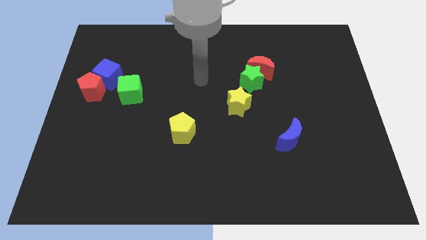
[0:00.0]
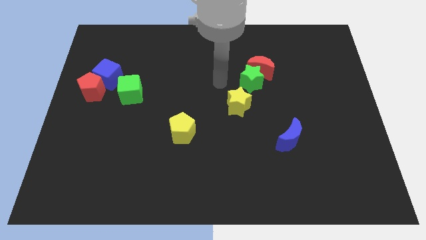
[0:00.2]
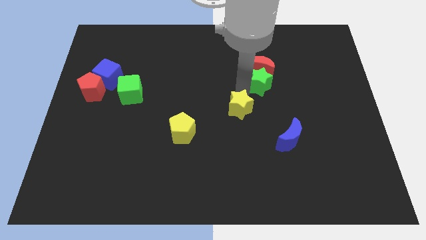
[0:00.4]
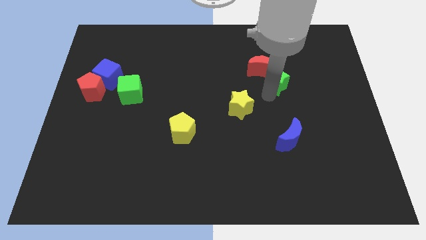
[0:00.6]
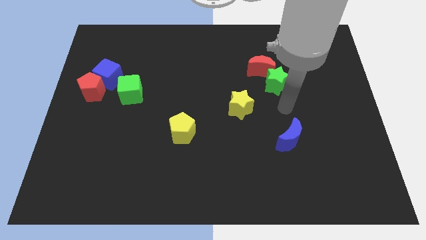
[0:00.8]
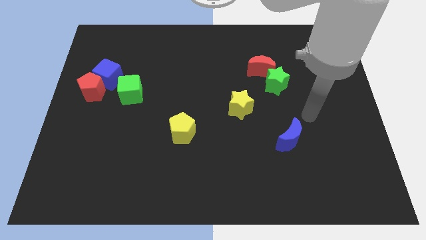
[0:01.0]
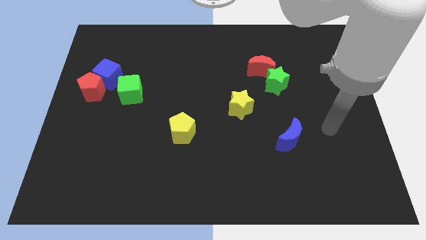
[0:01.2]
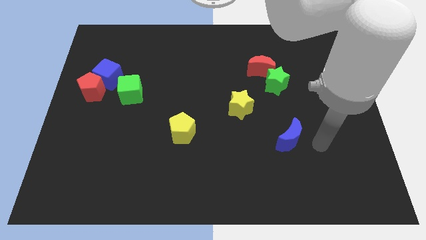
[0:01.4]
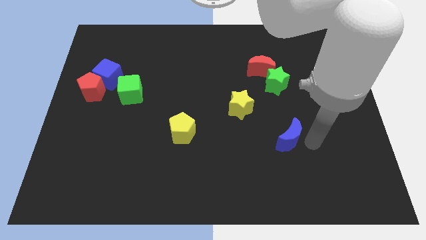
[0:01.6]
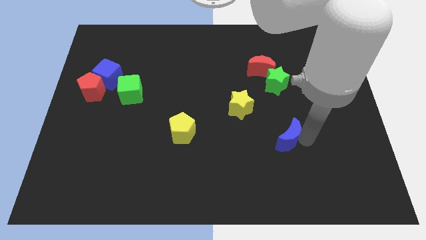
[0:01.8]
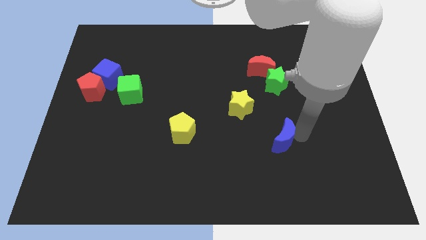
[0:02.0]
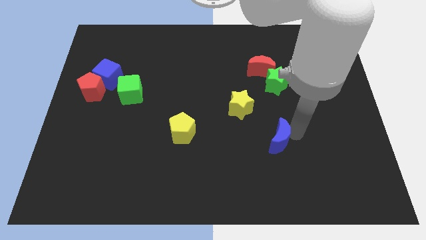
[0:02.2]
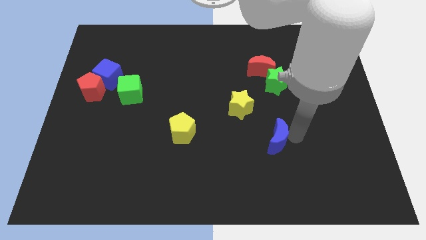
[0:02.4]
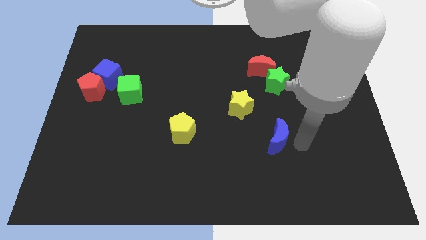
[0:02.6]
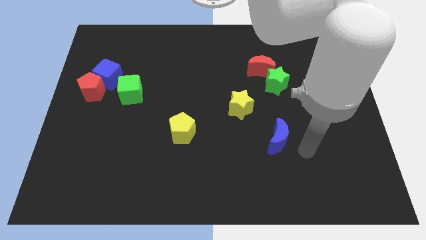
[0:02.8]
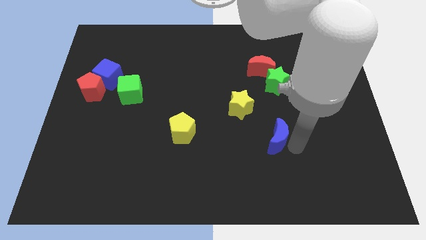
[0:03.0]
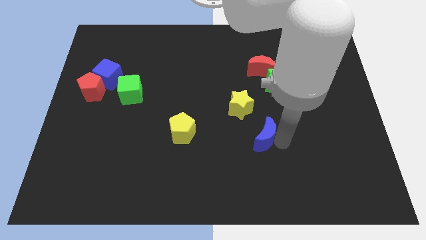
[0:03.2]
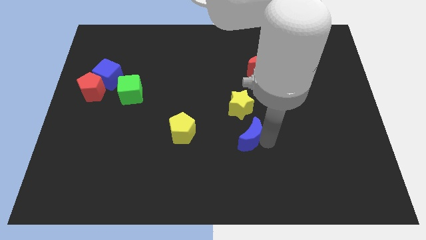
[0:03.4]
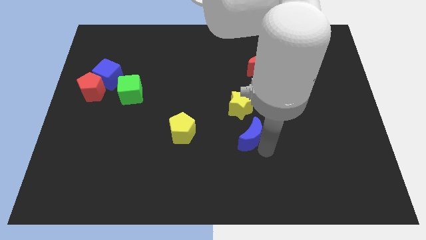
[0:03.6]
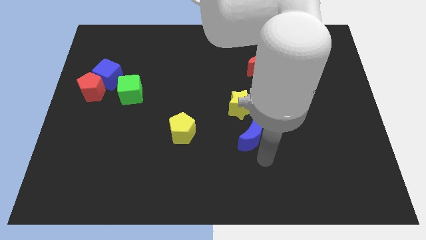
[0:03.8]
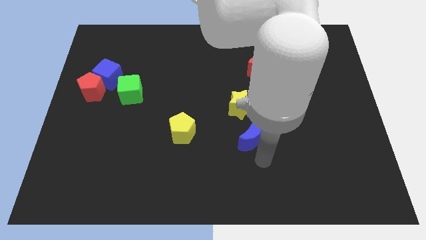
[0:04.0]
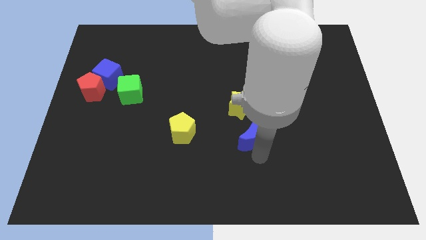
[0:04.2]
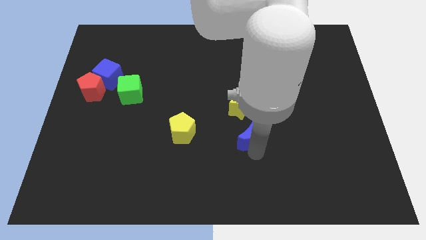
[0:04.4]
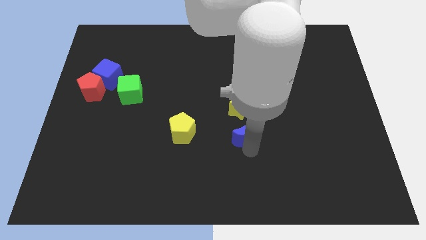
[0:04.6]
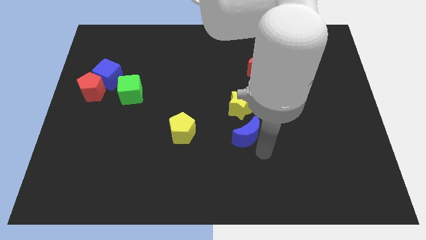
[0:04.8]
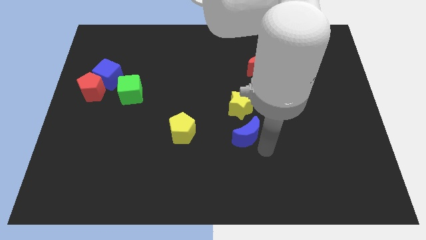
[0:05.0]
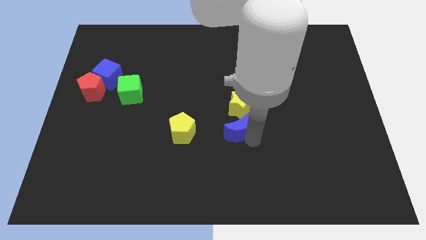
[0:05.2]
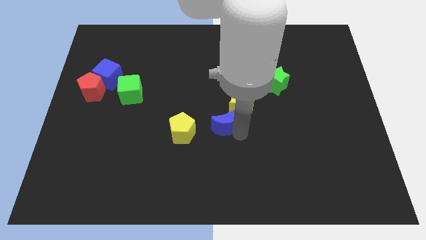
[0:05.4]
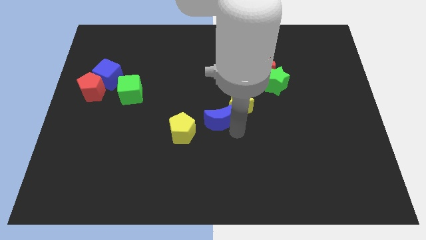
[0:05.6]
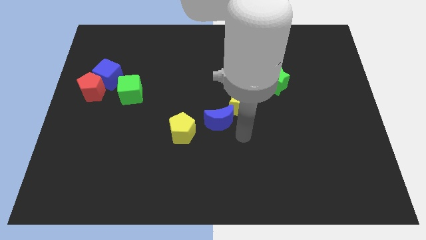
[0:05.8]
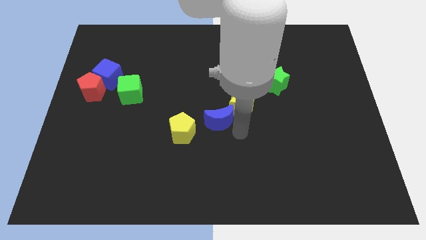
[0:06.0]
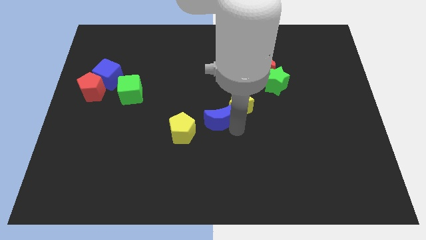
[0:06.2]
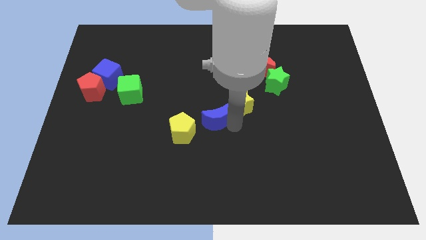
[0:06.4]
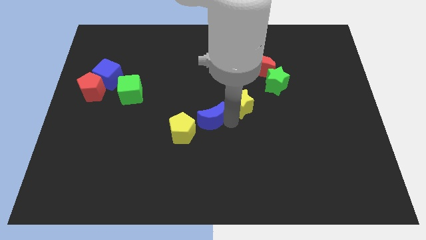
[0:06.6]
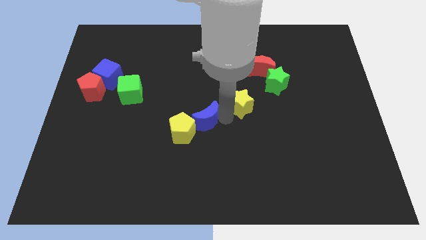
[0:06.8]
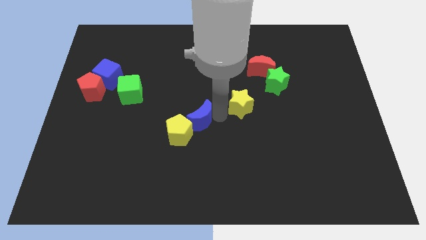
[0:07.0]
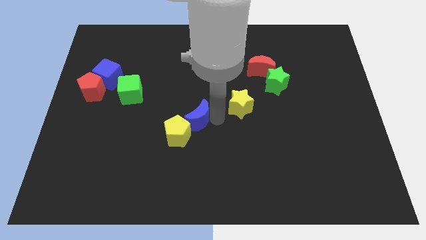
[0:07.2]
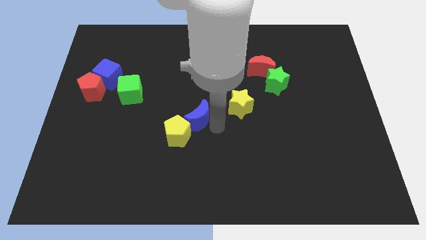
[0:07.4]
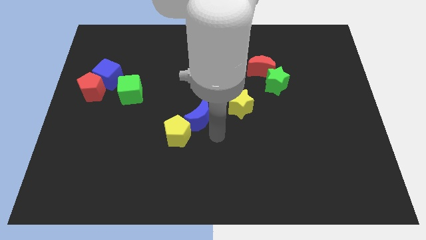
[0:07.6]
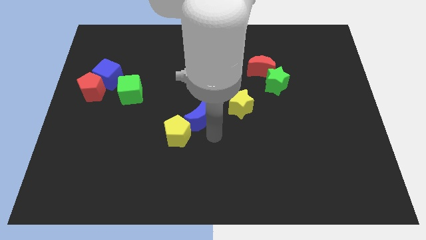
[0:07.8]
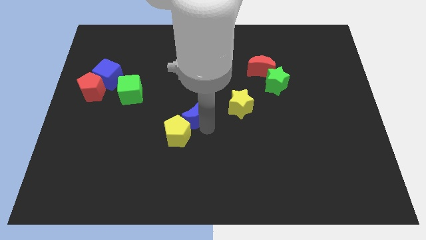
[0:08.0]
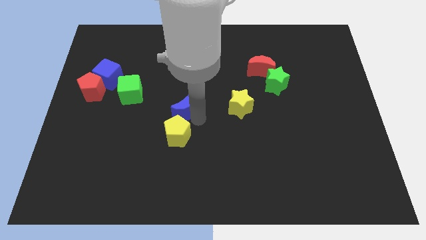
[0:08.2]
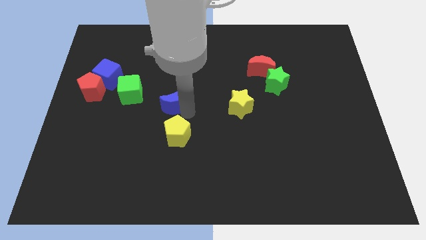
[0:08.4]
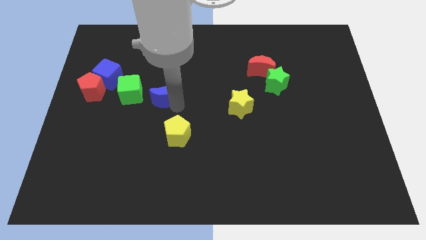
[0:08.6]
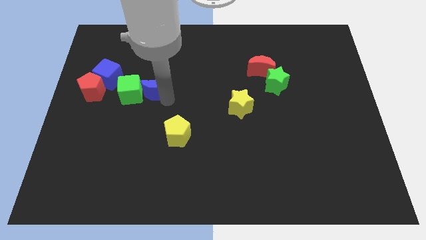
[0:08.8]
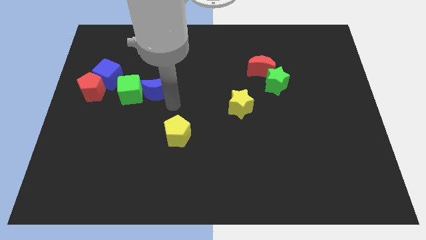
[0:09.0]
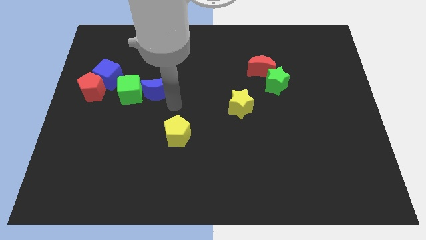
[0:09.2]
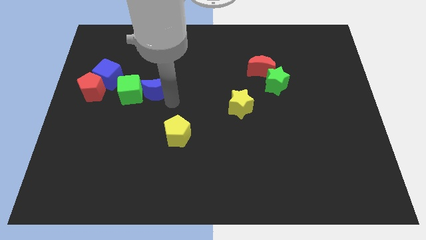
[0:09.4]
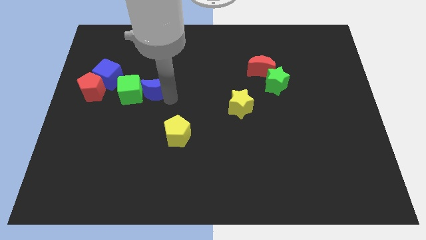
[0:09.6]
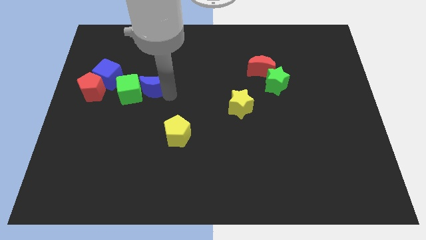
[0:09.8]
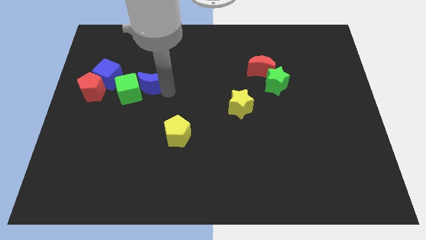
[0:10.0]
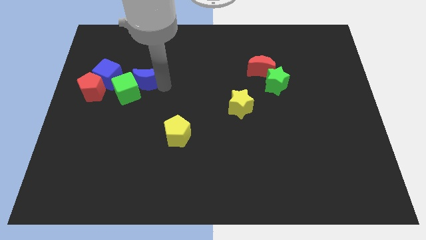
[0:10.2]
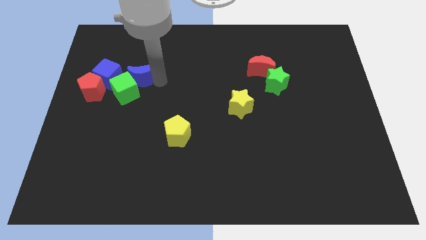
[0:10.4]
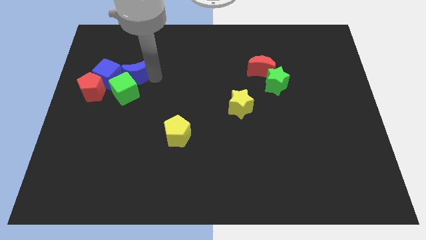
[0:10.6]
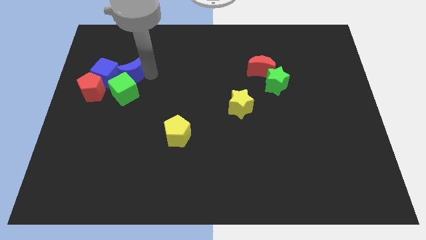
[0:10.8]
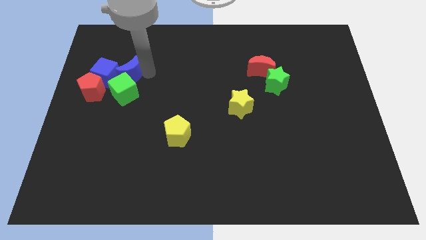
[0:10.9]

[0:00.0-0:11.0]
move the blue moon close to the blue cube

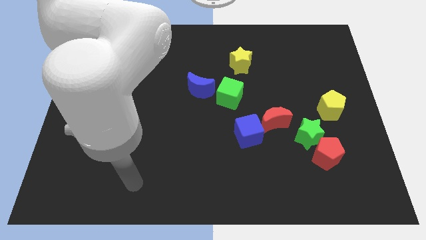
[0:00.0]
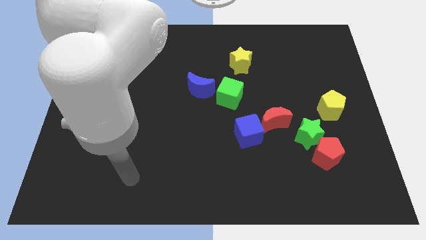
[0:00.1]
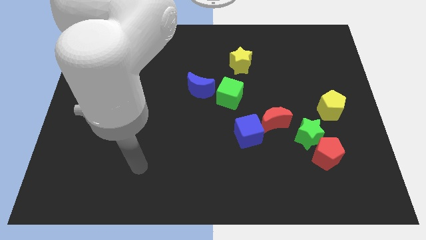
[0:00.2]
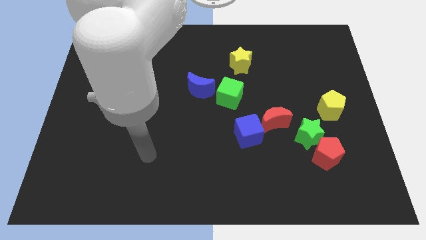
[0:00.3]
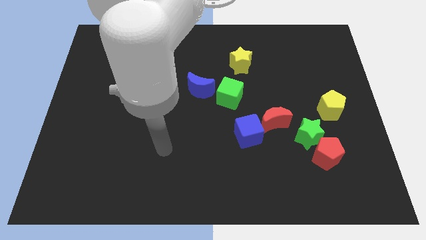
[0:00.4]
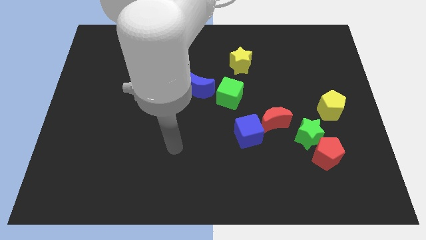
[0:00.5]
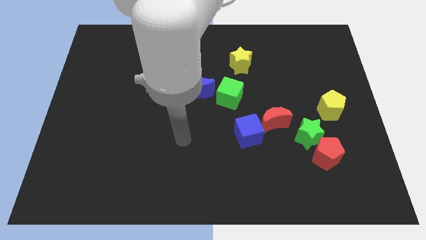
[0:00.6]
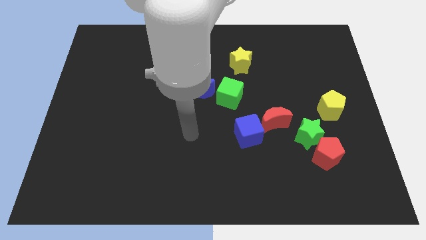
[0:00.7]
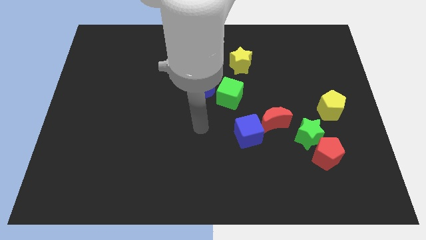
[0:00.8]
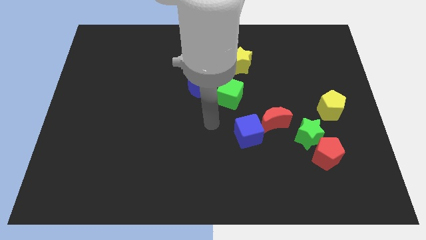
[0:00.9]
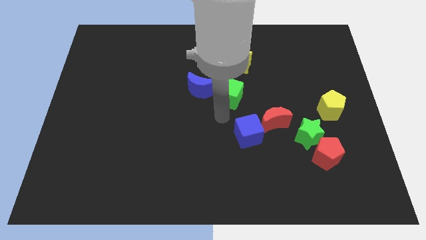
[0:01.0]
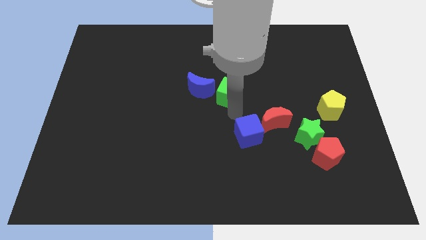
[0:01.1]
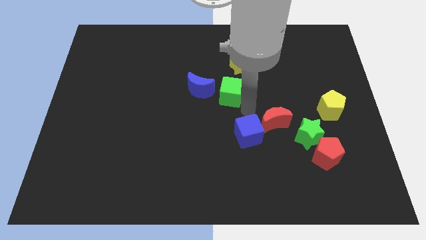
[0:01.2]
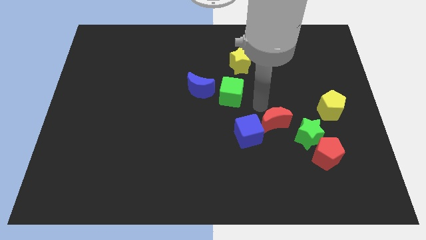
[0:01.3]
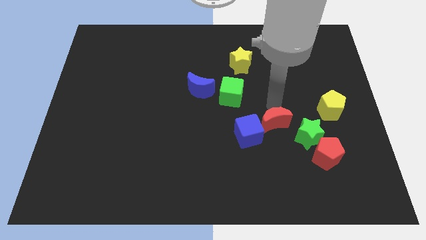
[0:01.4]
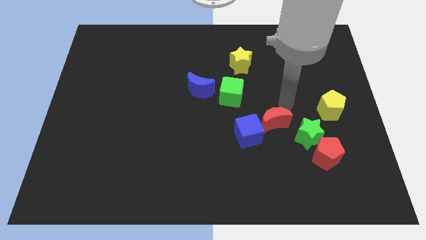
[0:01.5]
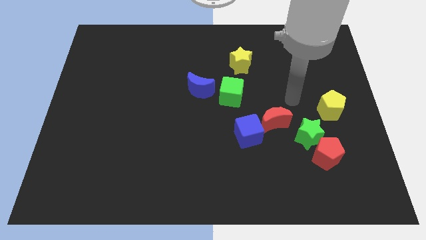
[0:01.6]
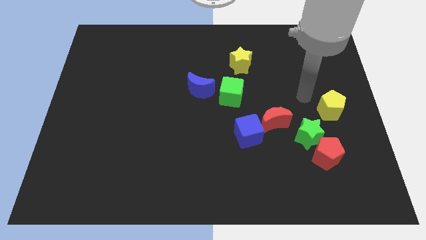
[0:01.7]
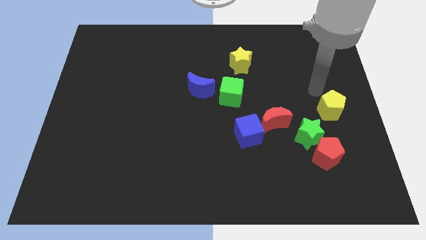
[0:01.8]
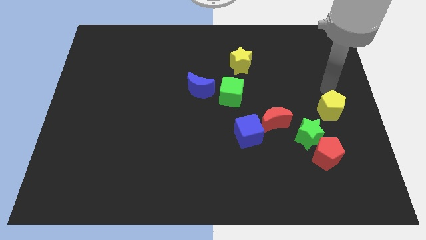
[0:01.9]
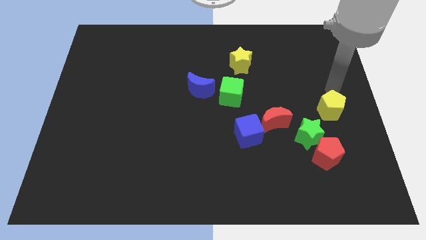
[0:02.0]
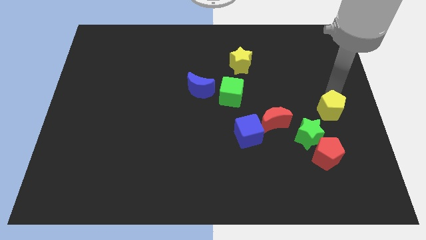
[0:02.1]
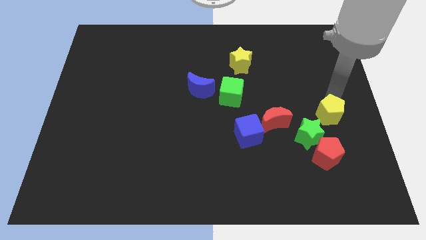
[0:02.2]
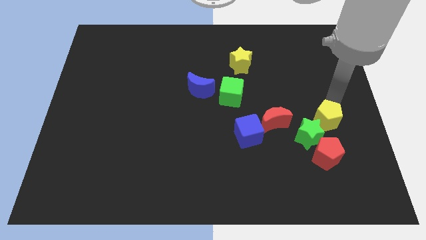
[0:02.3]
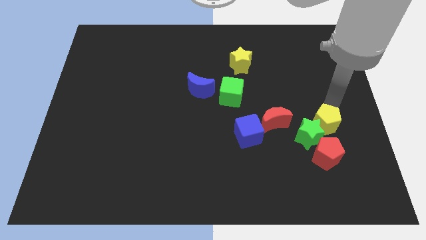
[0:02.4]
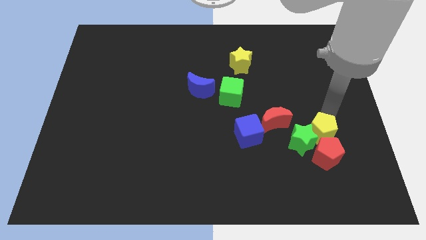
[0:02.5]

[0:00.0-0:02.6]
push the yellow pentagon close to the red pentagon
